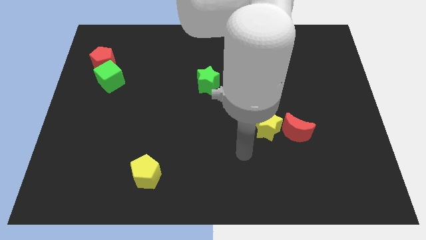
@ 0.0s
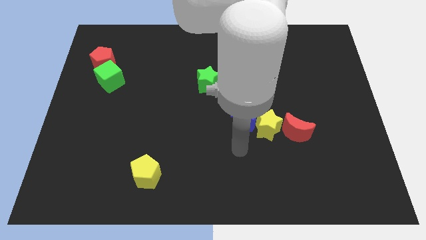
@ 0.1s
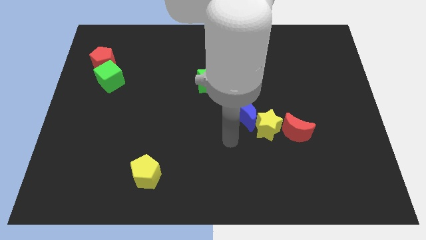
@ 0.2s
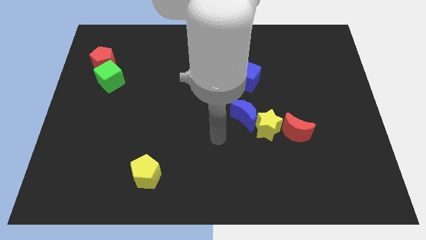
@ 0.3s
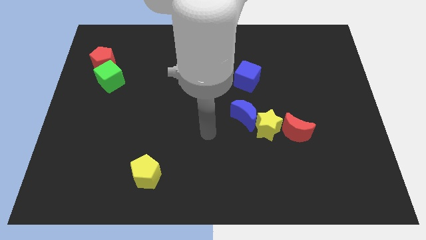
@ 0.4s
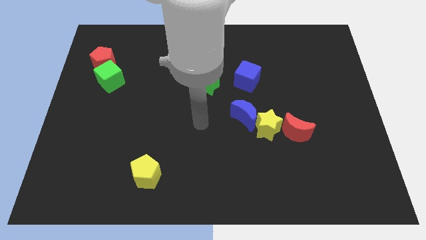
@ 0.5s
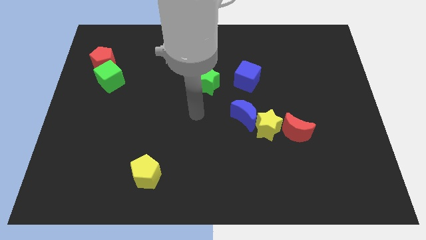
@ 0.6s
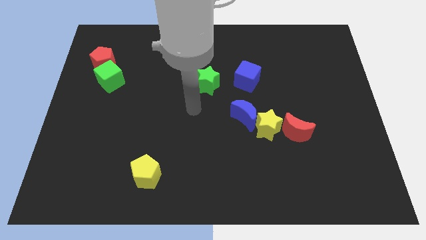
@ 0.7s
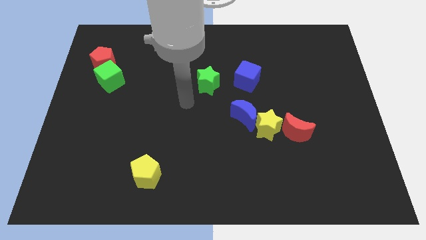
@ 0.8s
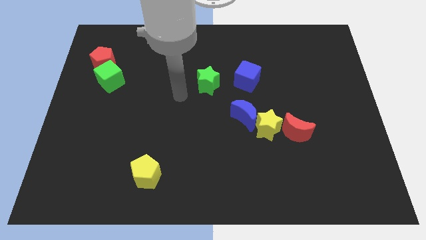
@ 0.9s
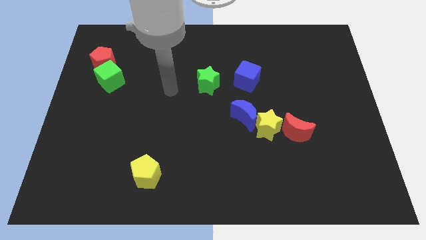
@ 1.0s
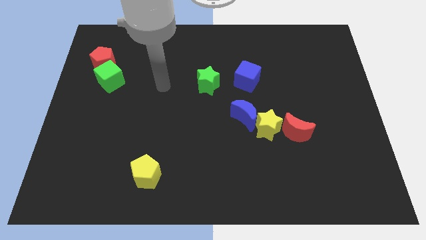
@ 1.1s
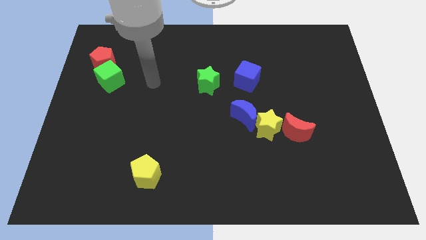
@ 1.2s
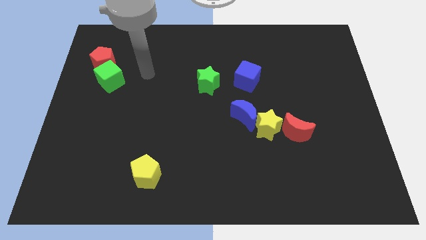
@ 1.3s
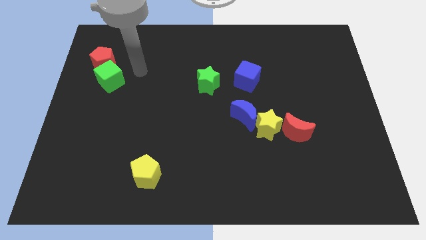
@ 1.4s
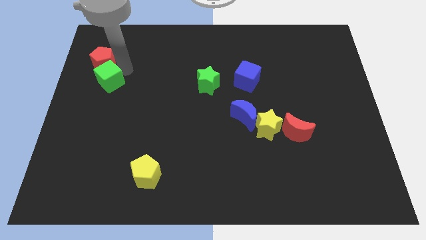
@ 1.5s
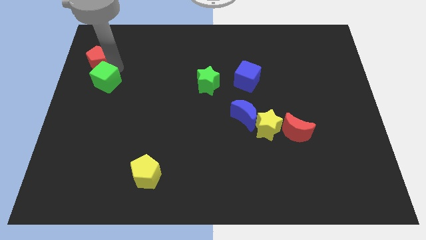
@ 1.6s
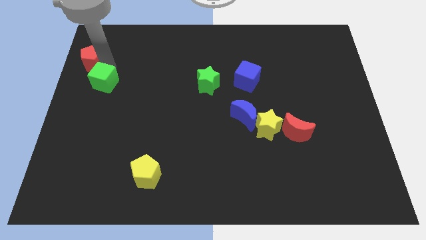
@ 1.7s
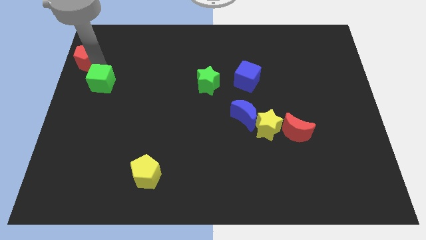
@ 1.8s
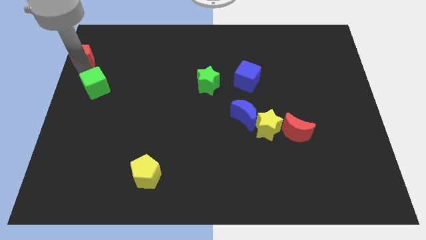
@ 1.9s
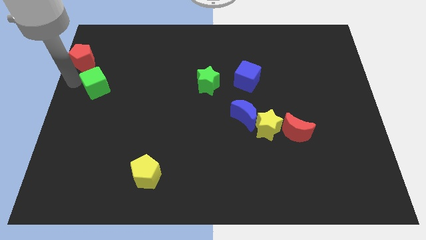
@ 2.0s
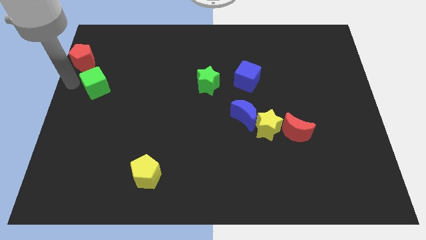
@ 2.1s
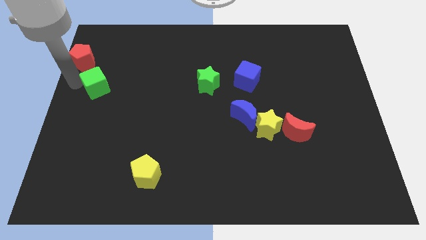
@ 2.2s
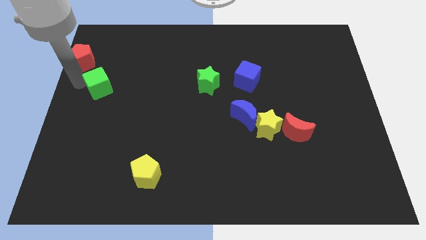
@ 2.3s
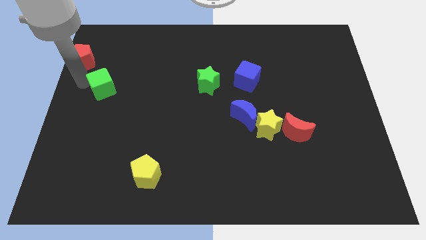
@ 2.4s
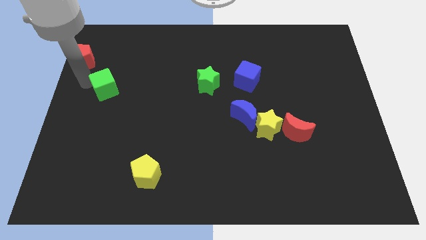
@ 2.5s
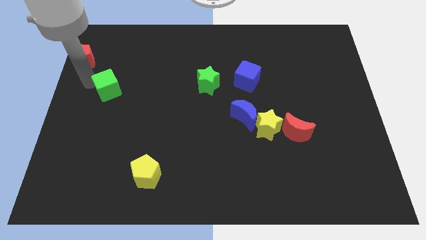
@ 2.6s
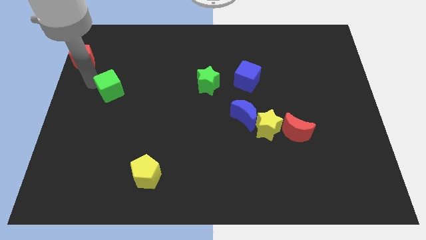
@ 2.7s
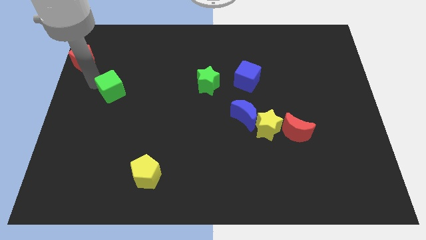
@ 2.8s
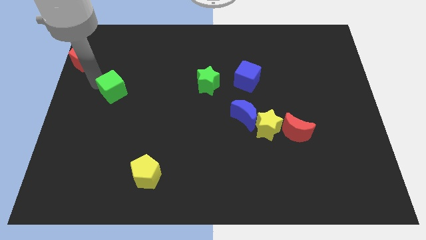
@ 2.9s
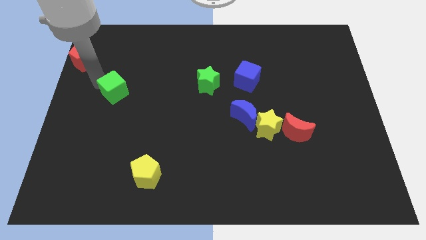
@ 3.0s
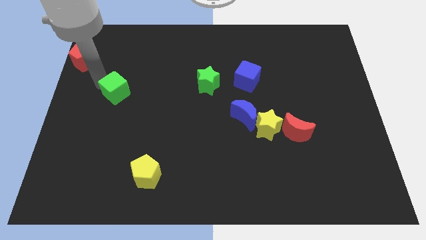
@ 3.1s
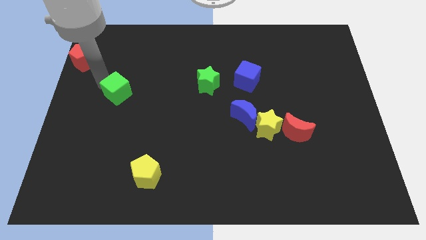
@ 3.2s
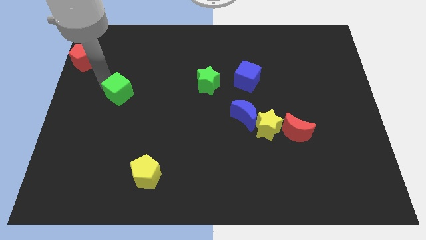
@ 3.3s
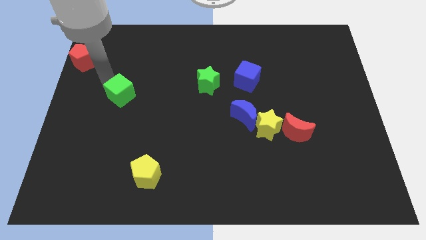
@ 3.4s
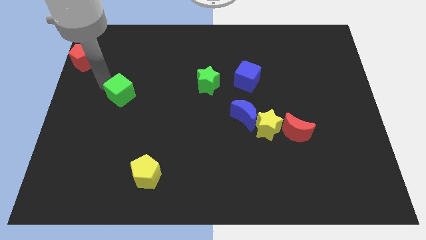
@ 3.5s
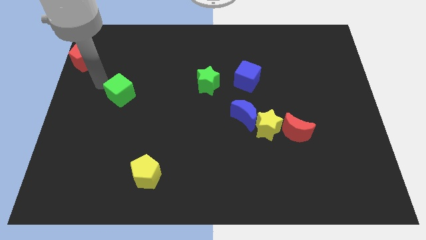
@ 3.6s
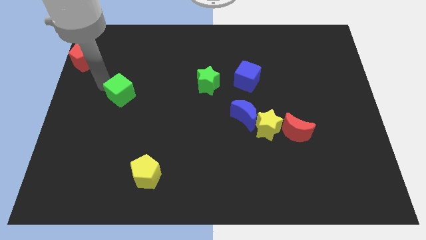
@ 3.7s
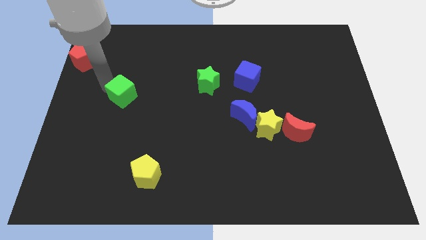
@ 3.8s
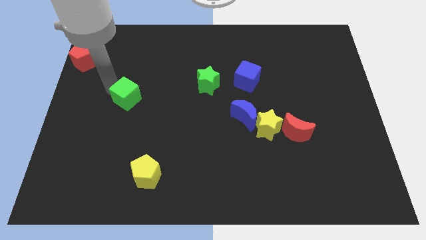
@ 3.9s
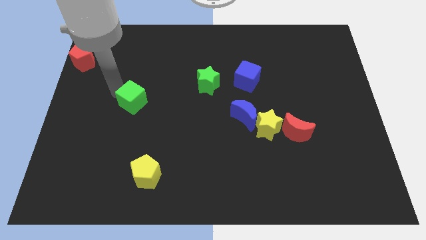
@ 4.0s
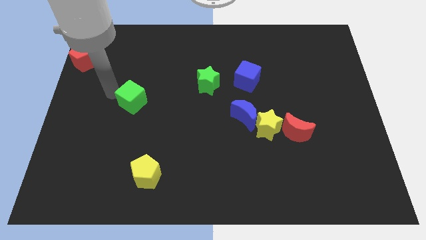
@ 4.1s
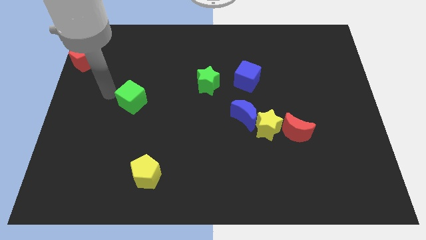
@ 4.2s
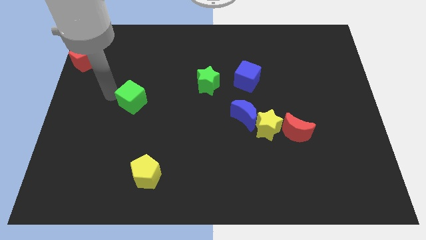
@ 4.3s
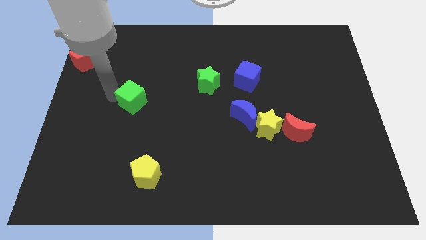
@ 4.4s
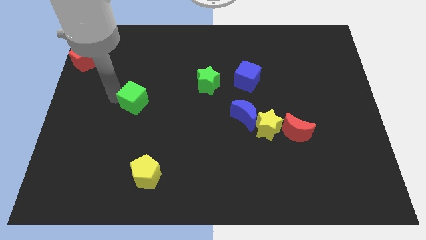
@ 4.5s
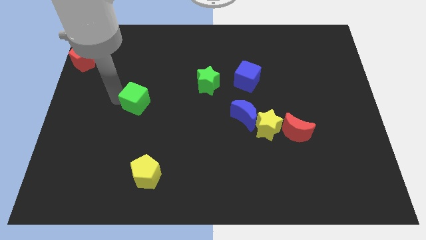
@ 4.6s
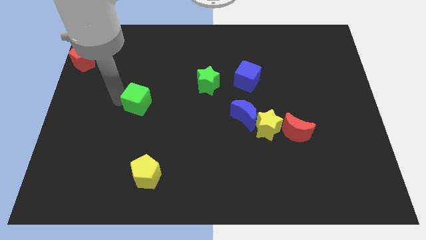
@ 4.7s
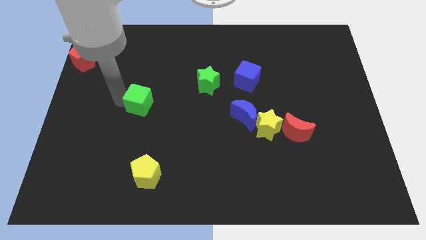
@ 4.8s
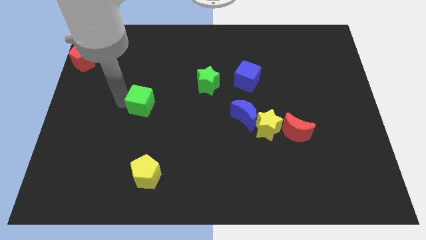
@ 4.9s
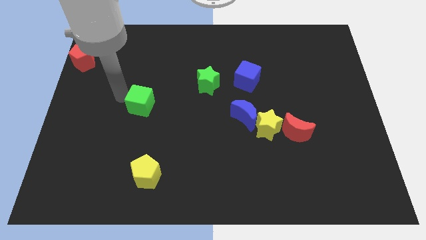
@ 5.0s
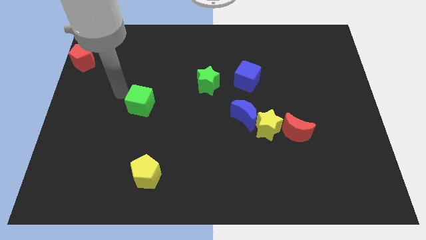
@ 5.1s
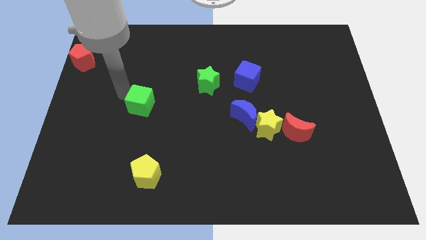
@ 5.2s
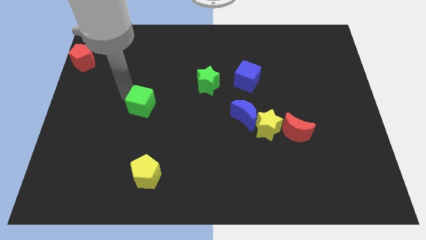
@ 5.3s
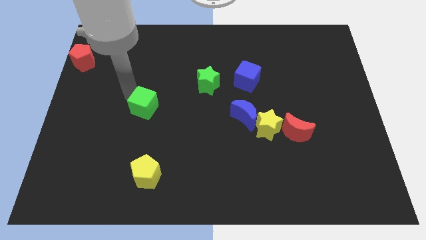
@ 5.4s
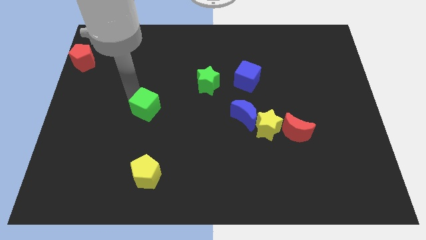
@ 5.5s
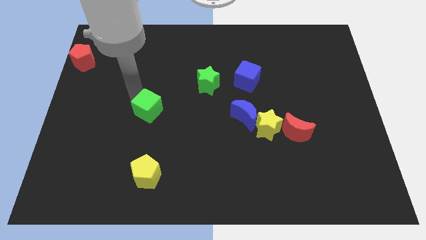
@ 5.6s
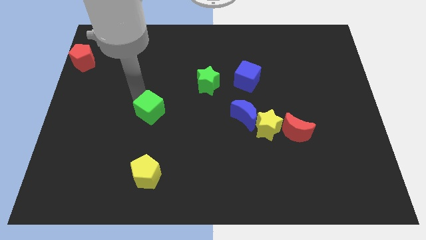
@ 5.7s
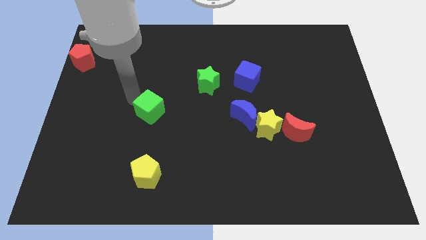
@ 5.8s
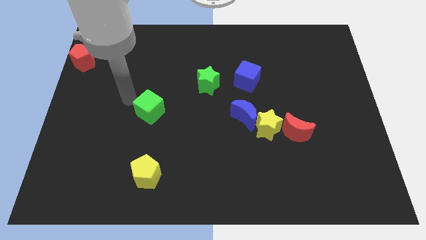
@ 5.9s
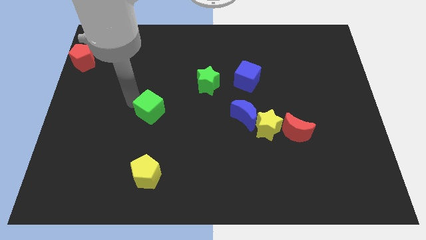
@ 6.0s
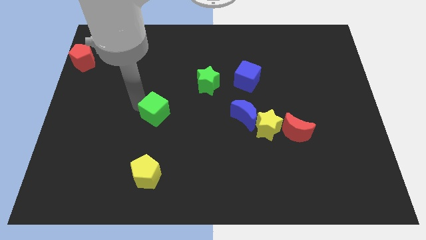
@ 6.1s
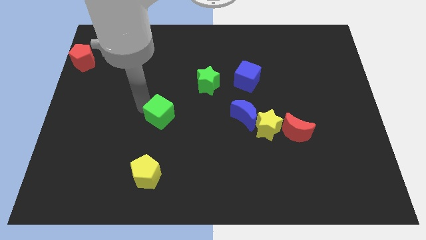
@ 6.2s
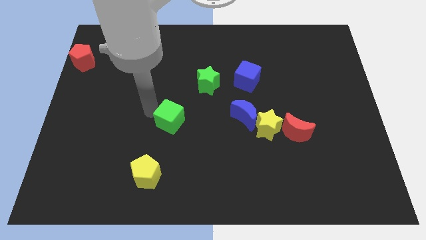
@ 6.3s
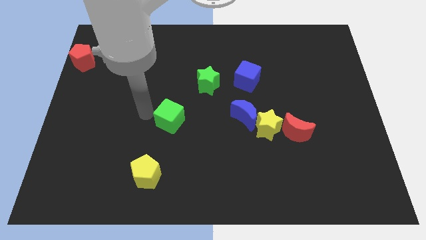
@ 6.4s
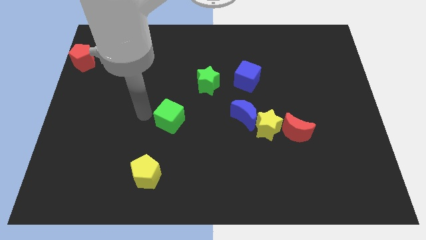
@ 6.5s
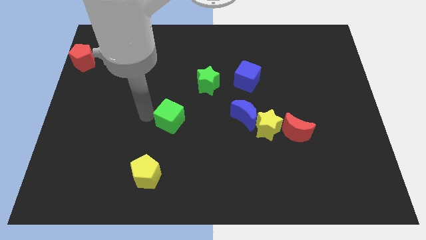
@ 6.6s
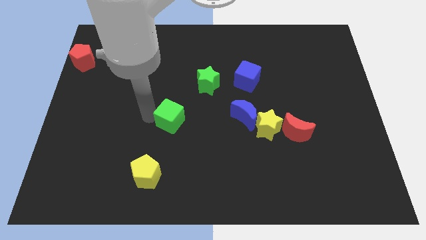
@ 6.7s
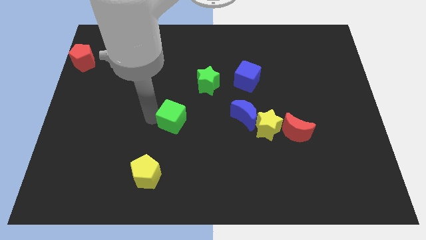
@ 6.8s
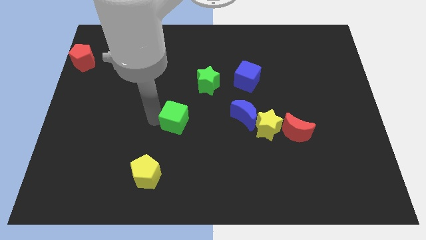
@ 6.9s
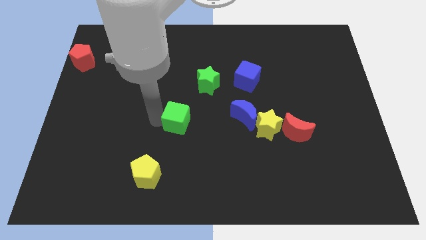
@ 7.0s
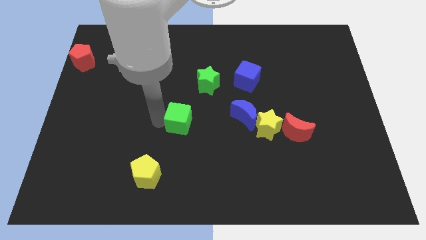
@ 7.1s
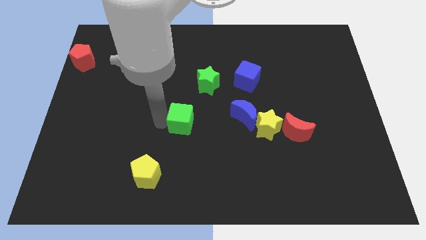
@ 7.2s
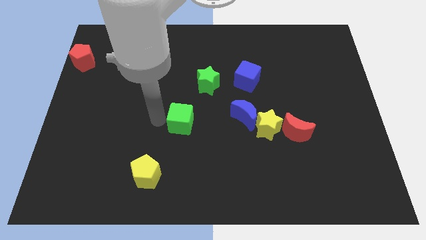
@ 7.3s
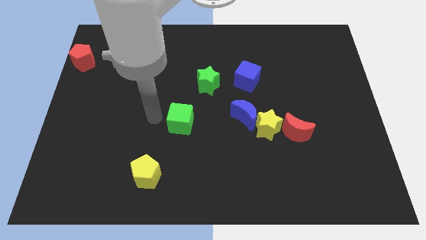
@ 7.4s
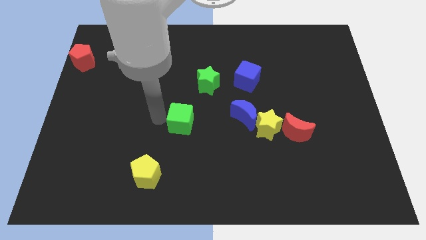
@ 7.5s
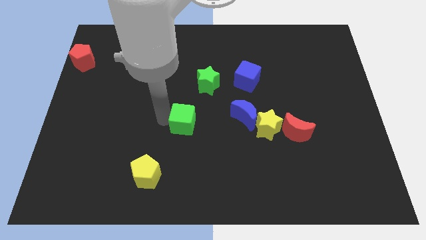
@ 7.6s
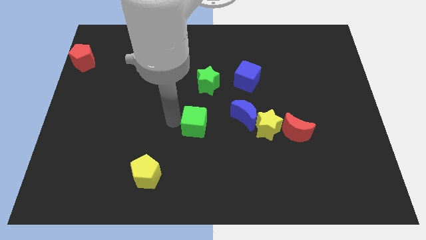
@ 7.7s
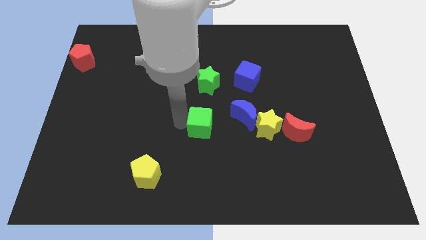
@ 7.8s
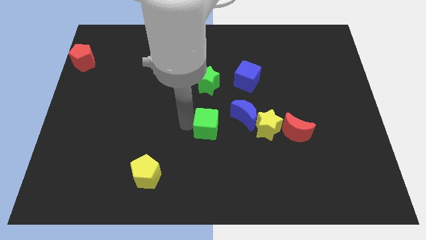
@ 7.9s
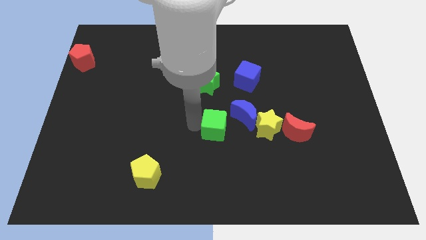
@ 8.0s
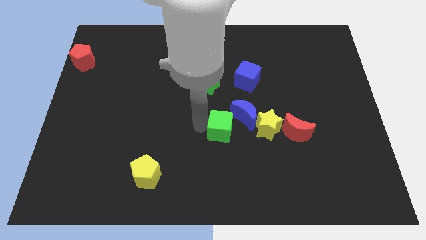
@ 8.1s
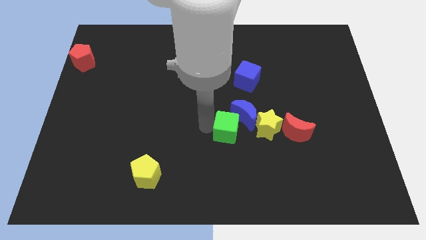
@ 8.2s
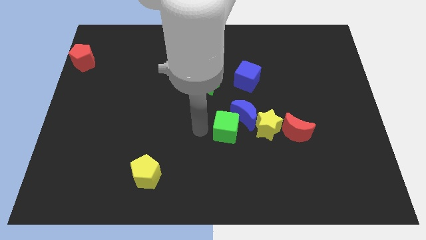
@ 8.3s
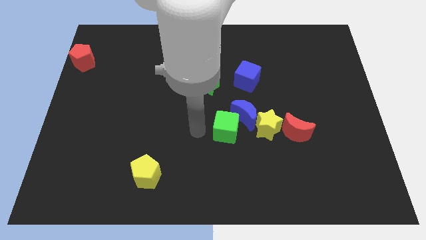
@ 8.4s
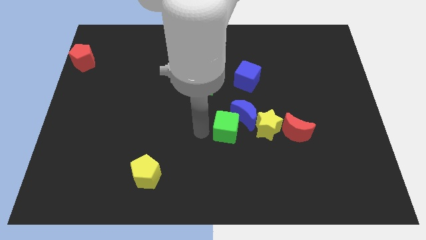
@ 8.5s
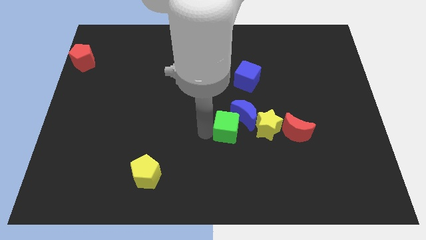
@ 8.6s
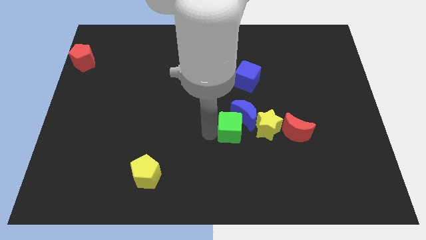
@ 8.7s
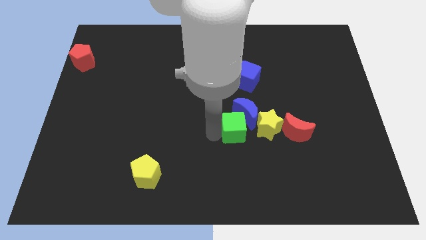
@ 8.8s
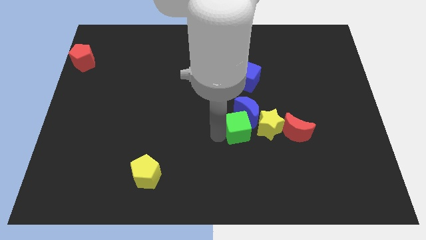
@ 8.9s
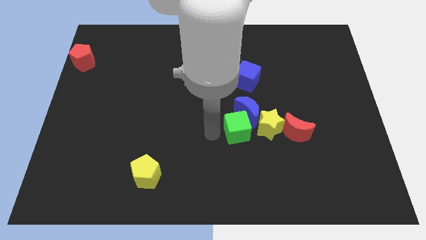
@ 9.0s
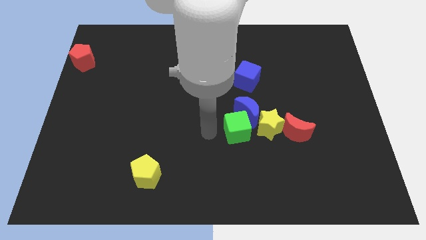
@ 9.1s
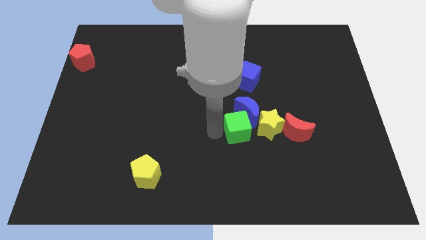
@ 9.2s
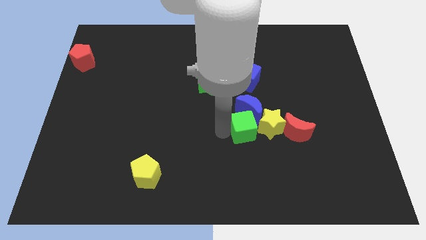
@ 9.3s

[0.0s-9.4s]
move the green cube next to the yellow star
